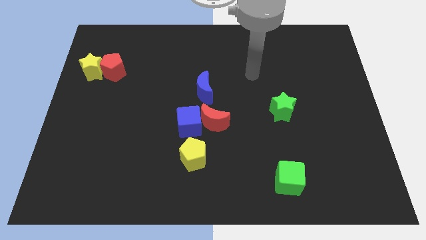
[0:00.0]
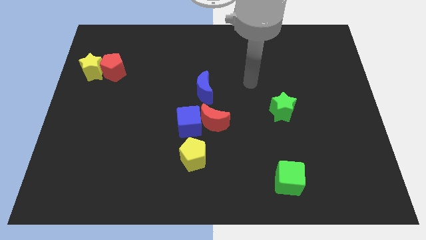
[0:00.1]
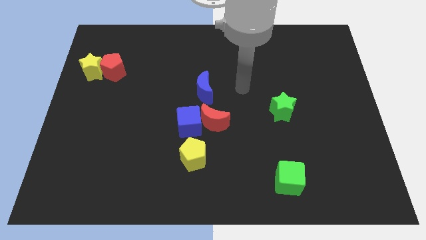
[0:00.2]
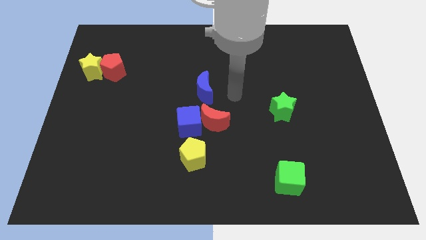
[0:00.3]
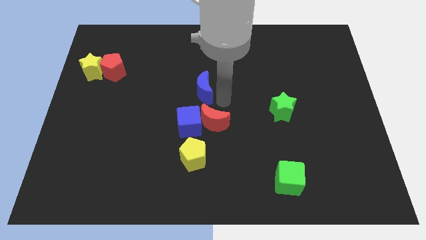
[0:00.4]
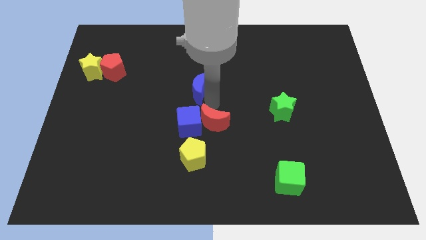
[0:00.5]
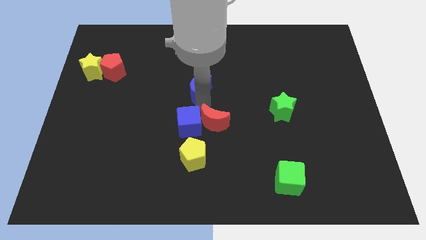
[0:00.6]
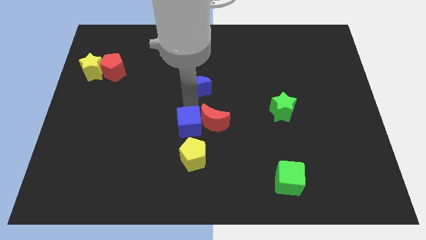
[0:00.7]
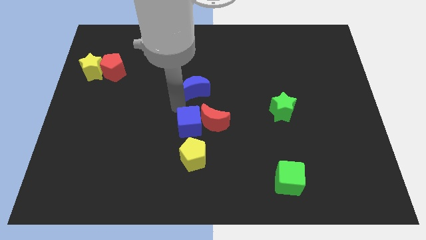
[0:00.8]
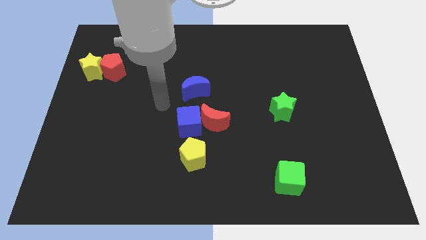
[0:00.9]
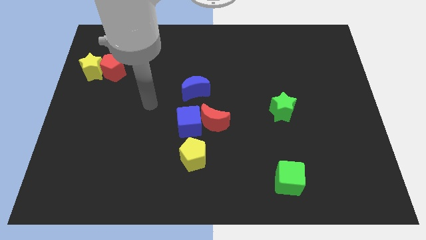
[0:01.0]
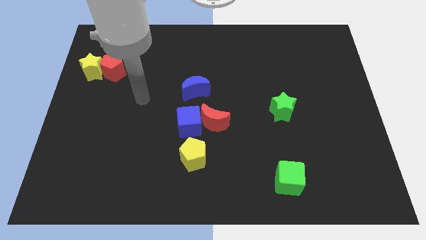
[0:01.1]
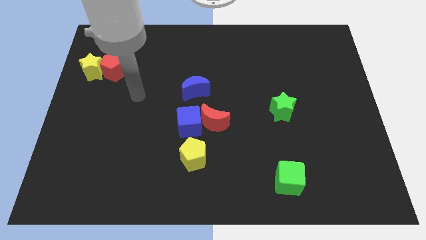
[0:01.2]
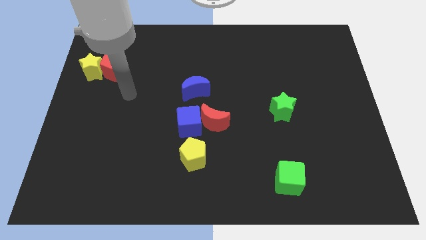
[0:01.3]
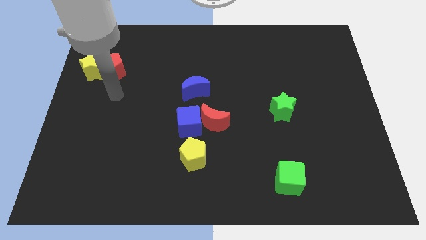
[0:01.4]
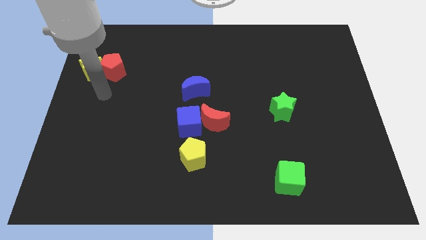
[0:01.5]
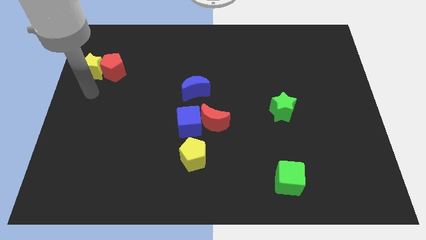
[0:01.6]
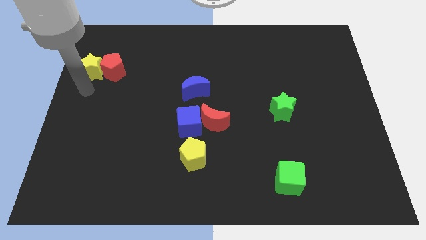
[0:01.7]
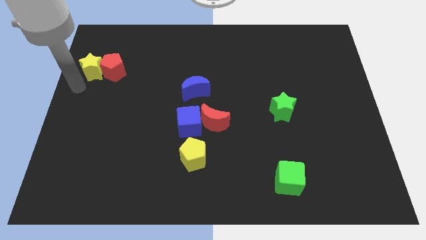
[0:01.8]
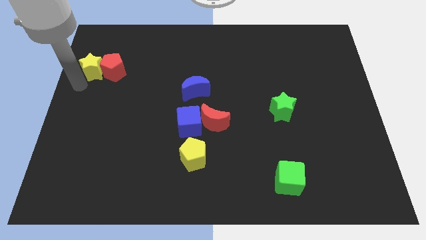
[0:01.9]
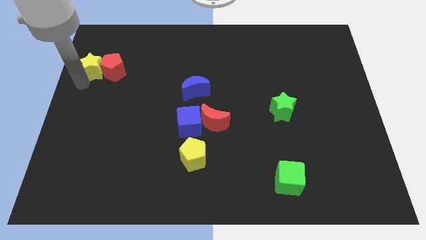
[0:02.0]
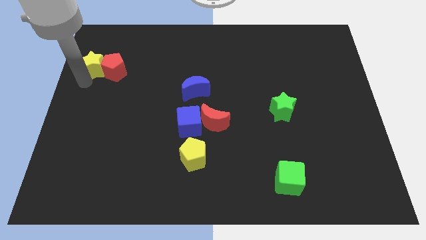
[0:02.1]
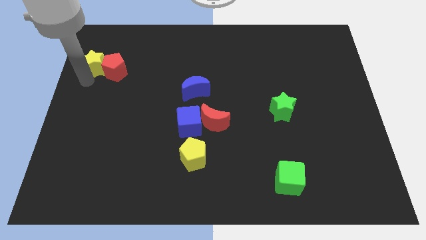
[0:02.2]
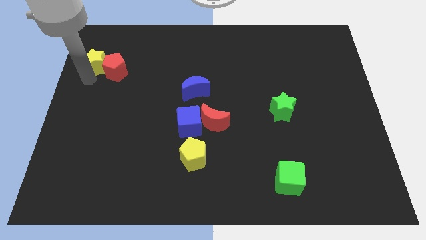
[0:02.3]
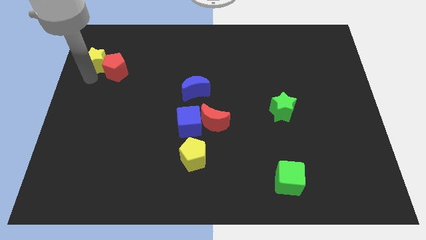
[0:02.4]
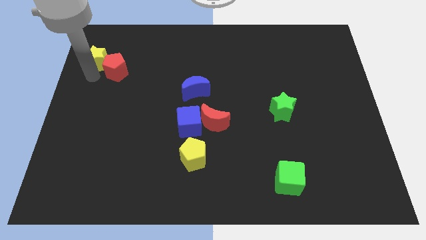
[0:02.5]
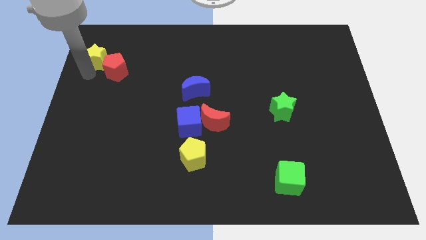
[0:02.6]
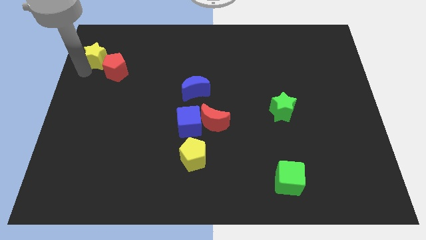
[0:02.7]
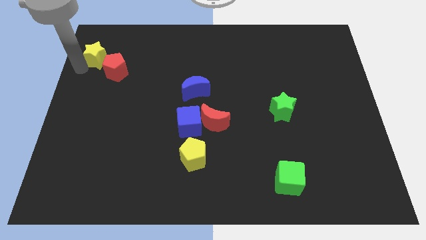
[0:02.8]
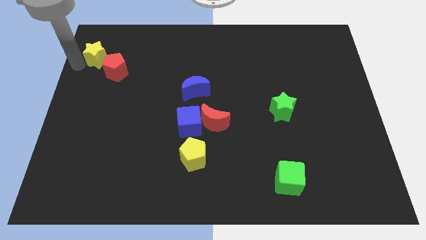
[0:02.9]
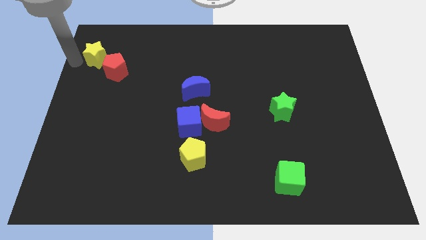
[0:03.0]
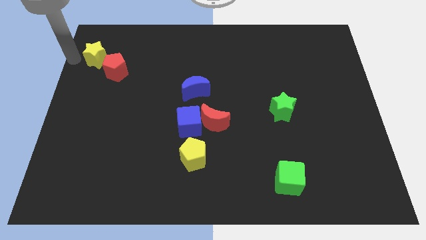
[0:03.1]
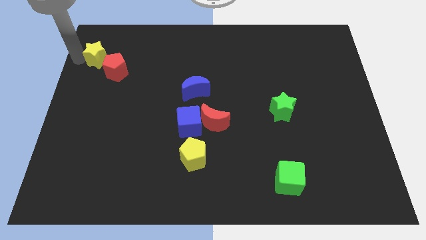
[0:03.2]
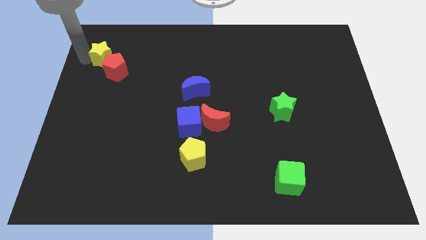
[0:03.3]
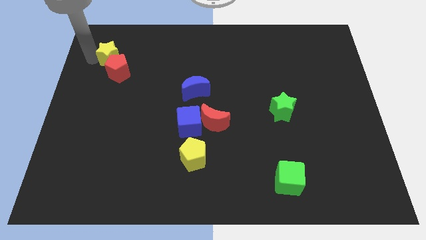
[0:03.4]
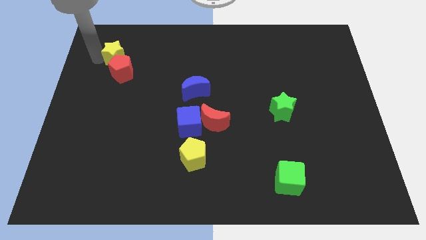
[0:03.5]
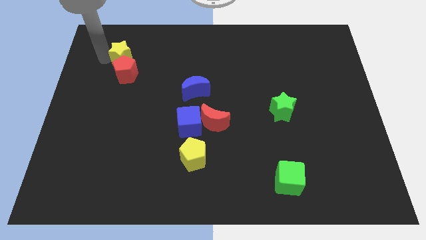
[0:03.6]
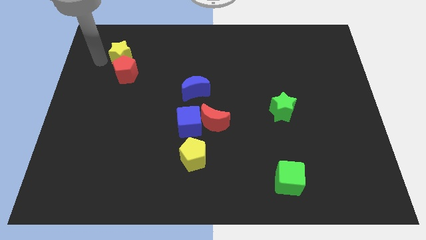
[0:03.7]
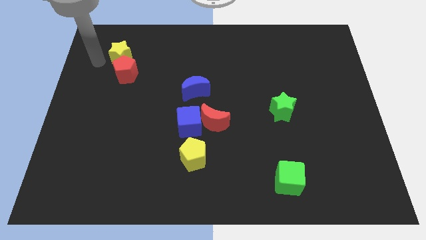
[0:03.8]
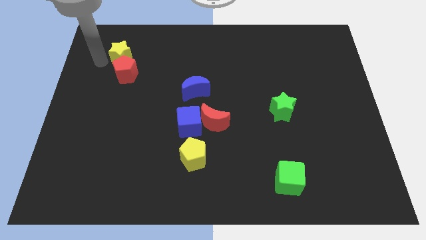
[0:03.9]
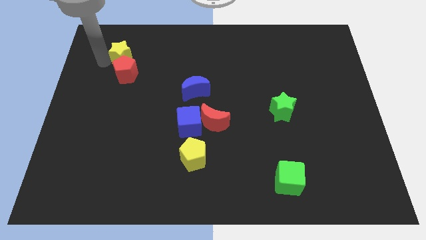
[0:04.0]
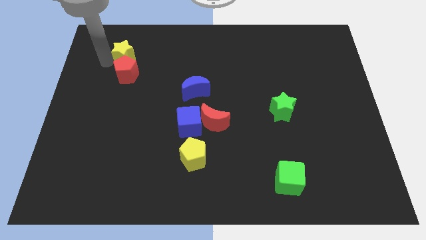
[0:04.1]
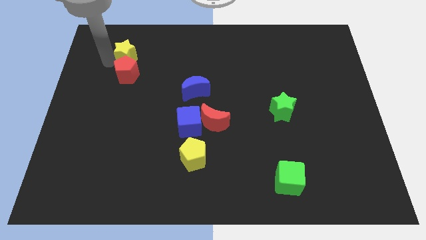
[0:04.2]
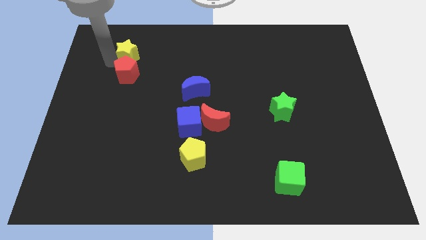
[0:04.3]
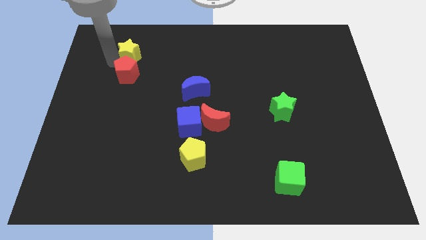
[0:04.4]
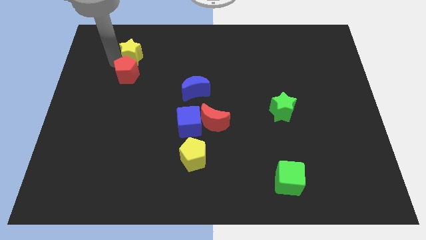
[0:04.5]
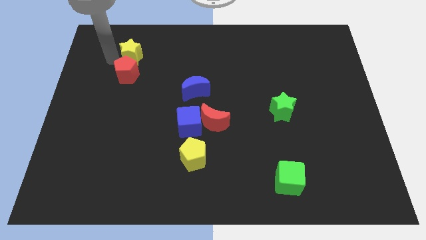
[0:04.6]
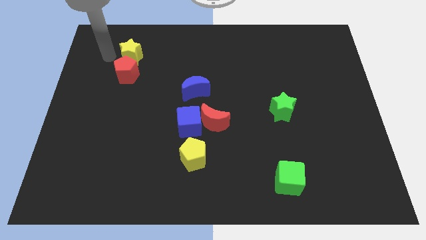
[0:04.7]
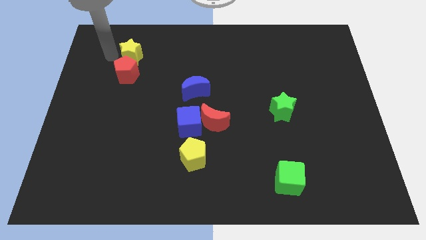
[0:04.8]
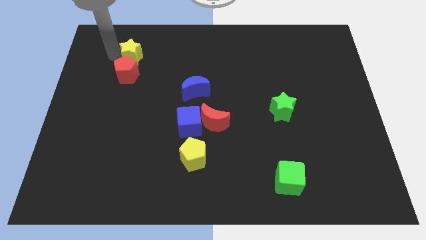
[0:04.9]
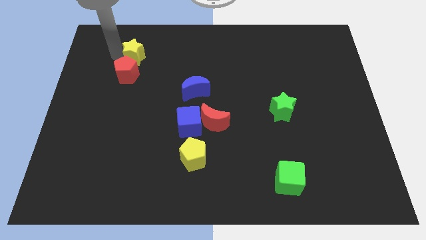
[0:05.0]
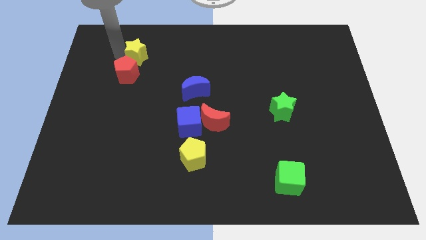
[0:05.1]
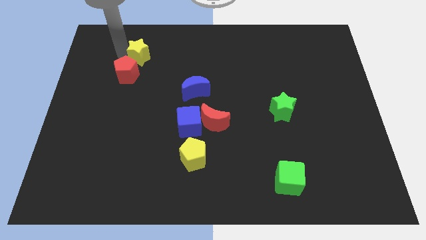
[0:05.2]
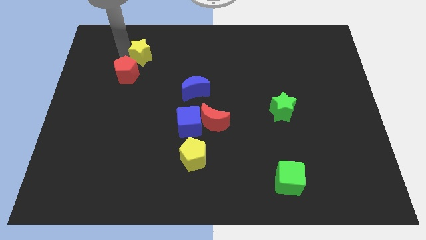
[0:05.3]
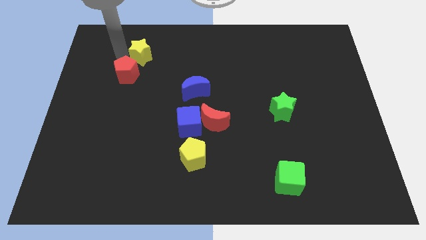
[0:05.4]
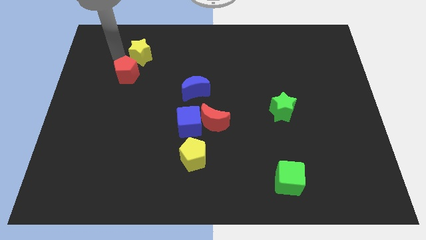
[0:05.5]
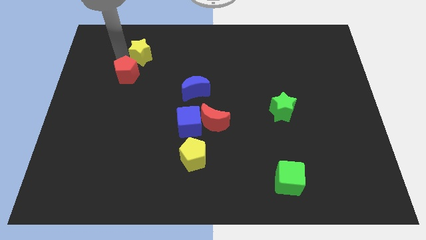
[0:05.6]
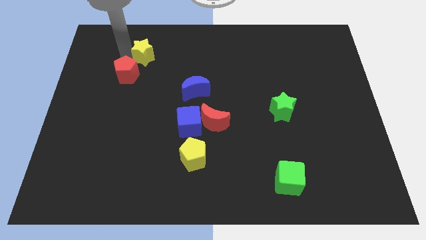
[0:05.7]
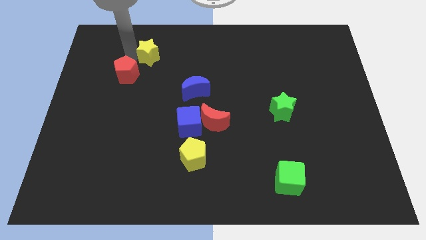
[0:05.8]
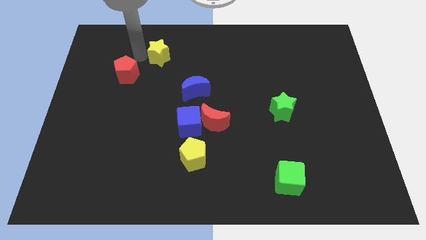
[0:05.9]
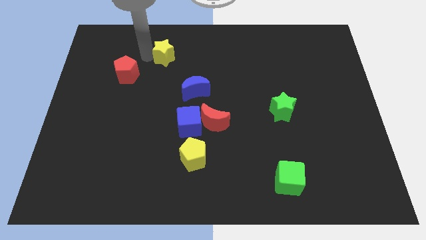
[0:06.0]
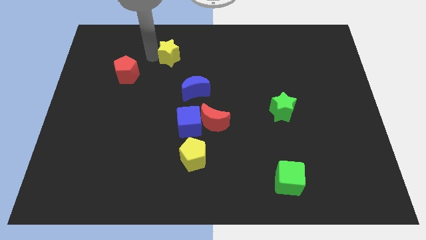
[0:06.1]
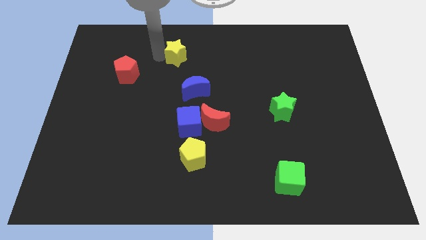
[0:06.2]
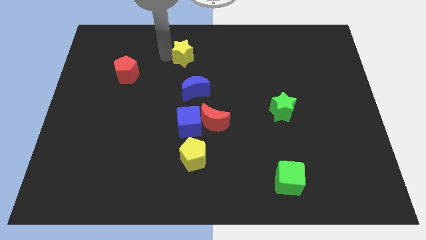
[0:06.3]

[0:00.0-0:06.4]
move the yellow star to the top side of the blue moon
